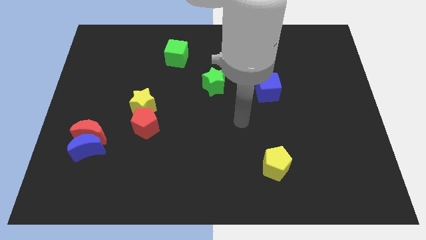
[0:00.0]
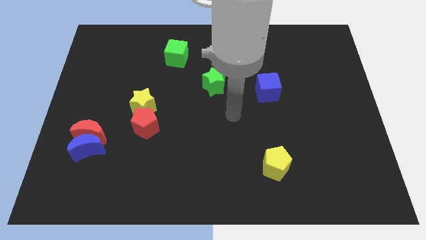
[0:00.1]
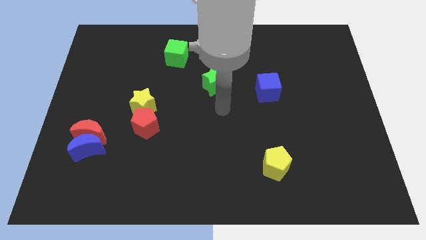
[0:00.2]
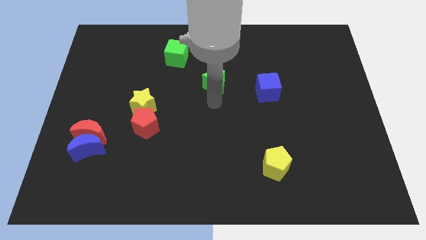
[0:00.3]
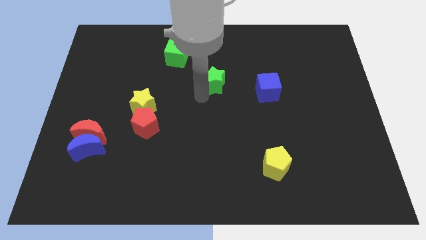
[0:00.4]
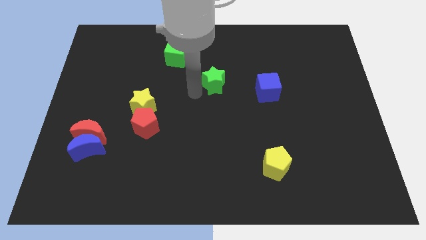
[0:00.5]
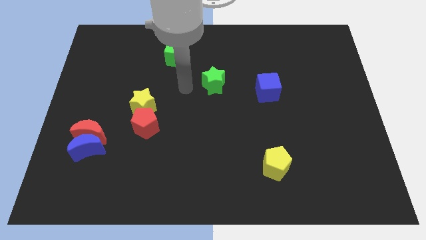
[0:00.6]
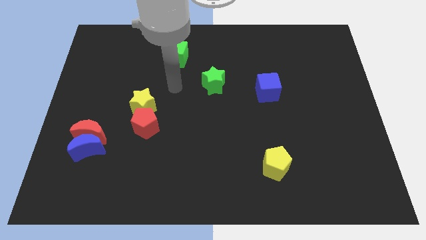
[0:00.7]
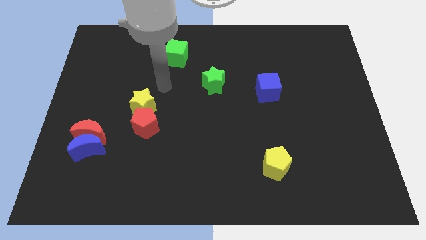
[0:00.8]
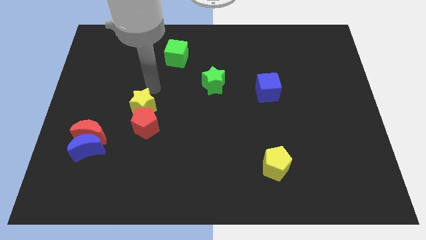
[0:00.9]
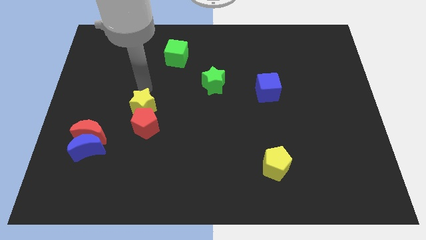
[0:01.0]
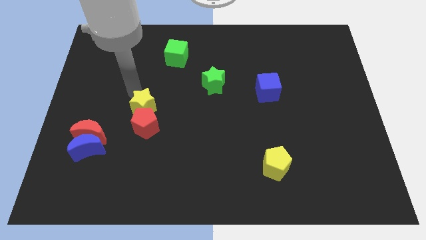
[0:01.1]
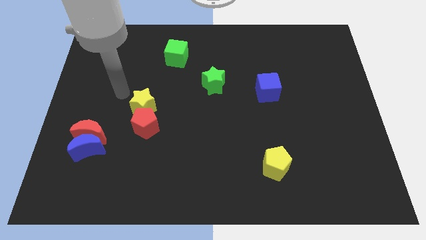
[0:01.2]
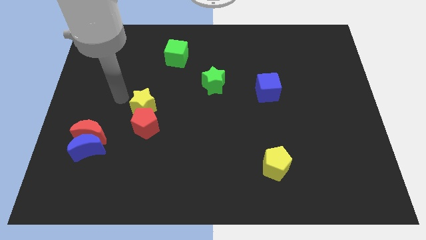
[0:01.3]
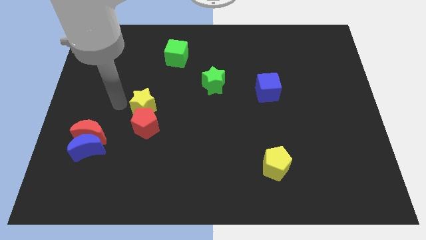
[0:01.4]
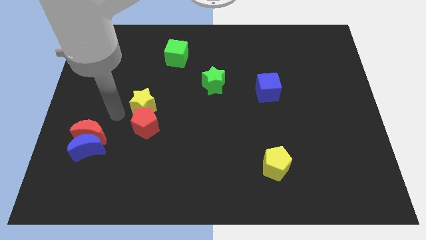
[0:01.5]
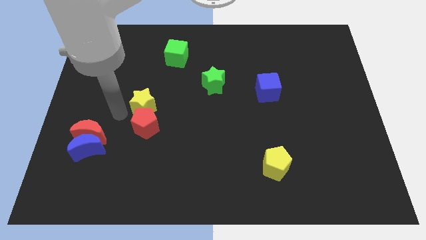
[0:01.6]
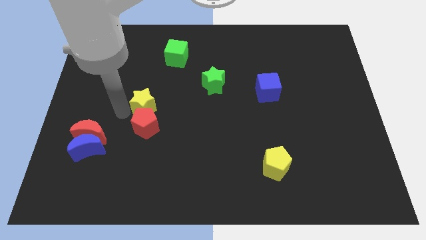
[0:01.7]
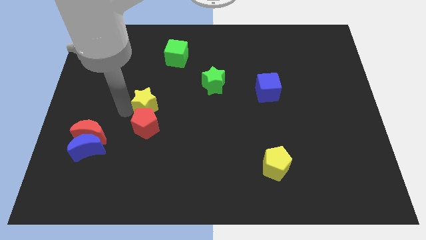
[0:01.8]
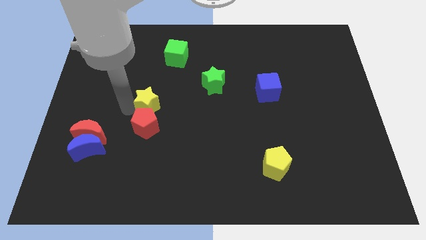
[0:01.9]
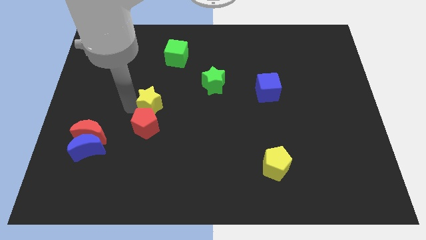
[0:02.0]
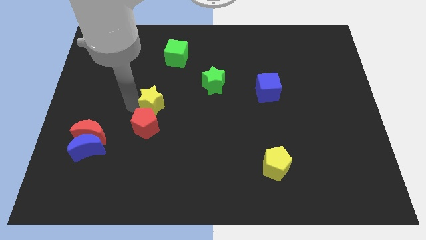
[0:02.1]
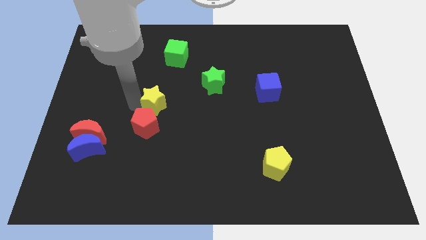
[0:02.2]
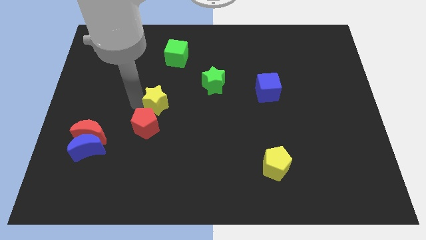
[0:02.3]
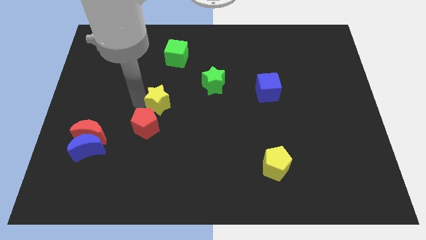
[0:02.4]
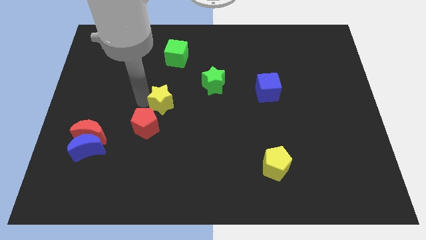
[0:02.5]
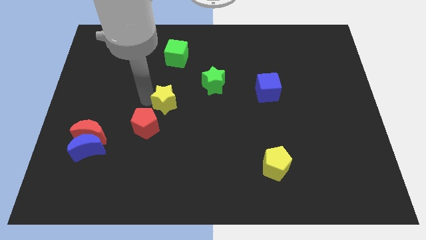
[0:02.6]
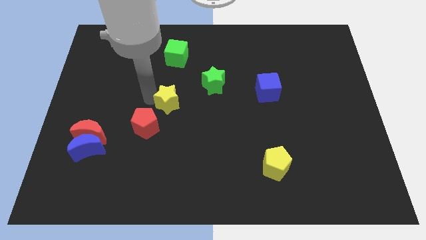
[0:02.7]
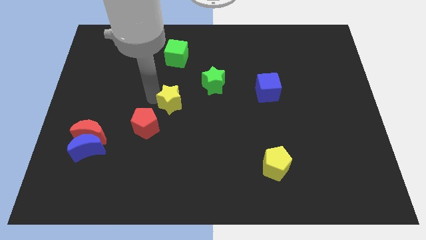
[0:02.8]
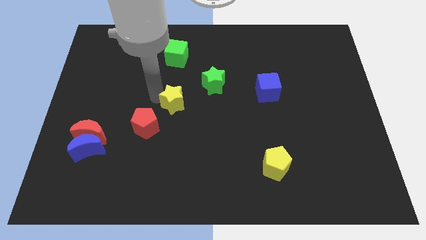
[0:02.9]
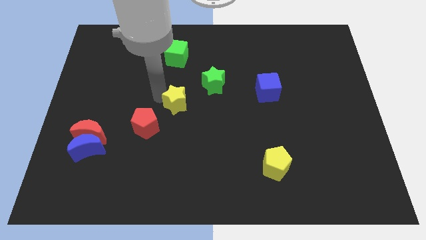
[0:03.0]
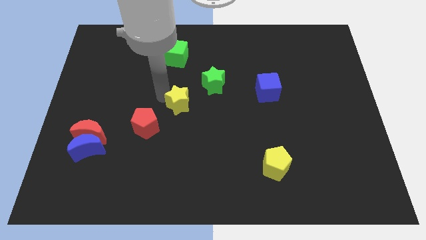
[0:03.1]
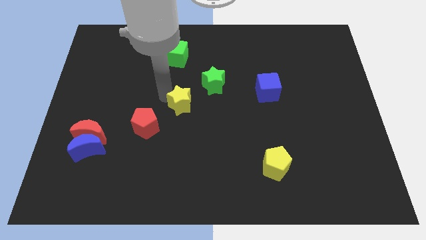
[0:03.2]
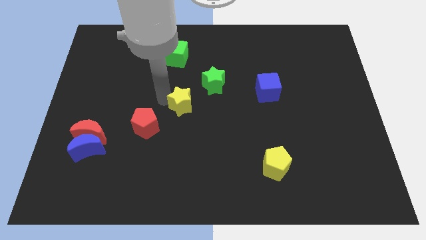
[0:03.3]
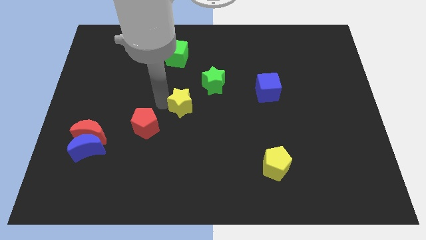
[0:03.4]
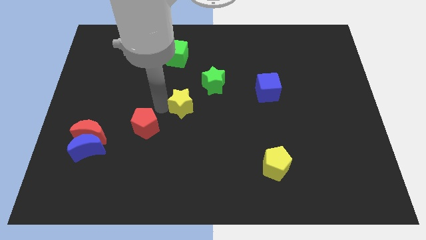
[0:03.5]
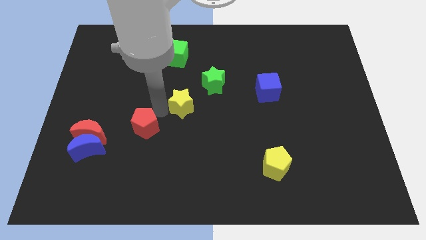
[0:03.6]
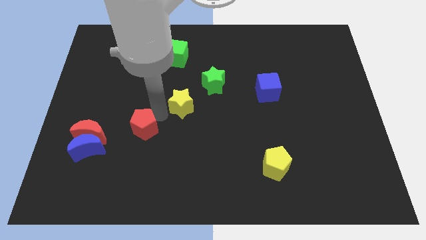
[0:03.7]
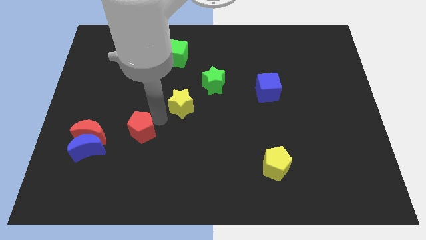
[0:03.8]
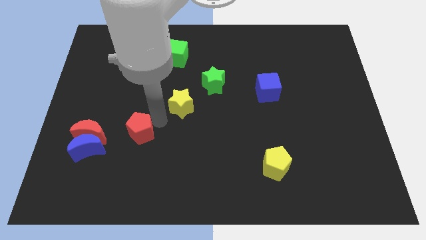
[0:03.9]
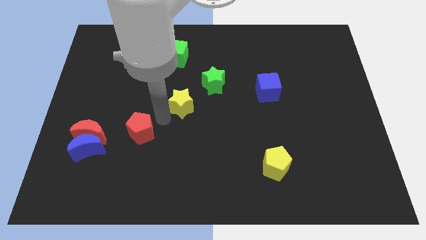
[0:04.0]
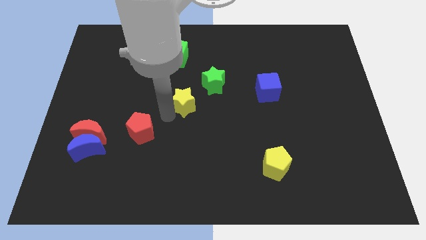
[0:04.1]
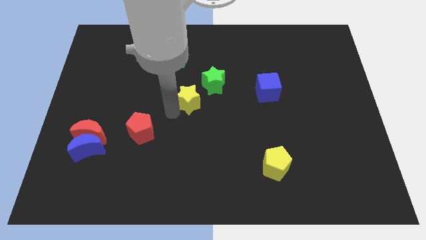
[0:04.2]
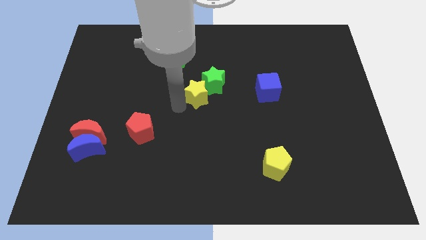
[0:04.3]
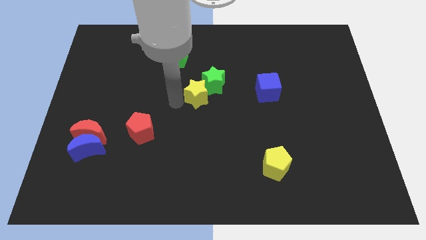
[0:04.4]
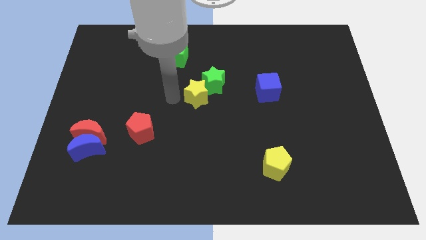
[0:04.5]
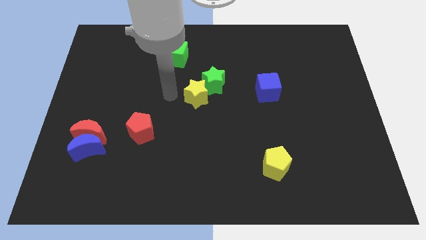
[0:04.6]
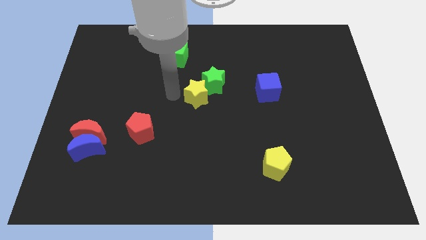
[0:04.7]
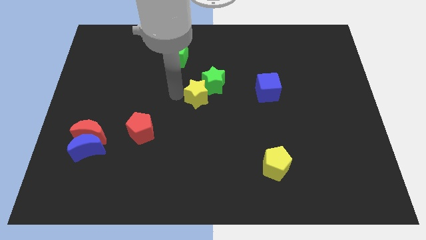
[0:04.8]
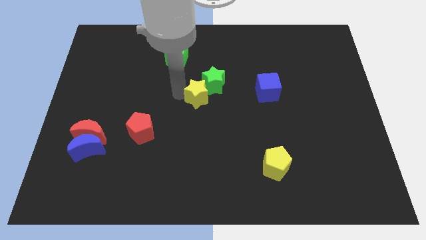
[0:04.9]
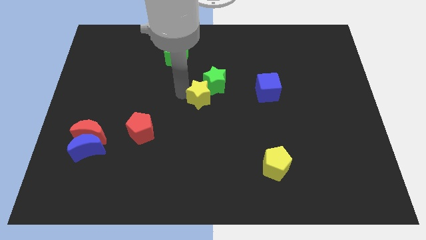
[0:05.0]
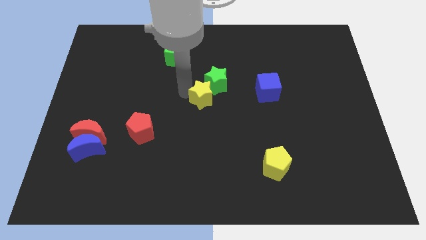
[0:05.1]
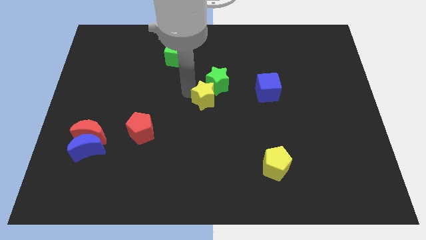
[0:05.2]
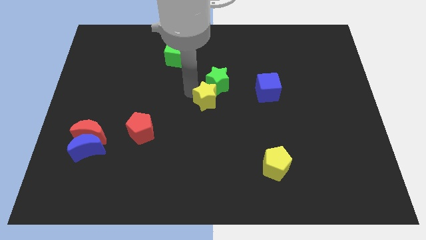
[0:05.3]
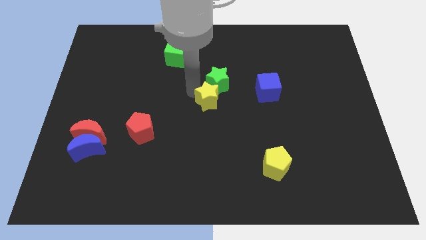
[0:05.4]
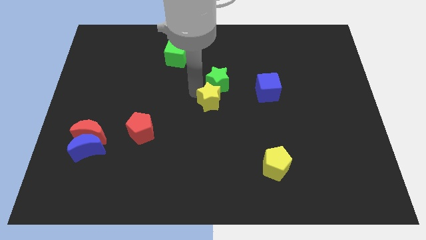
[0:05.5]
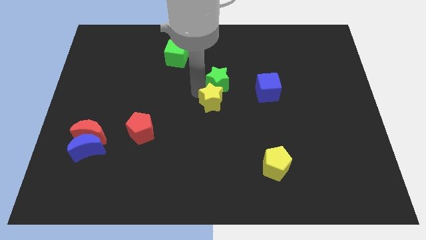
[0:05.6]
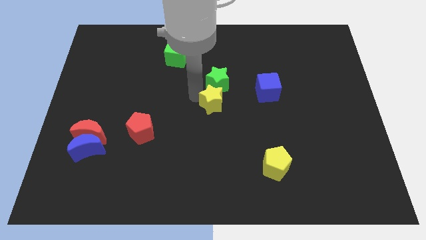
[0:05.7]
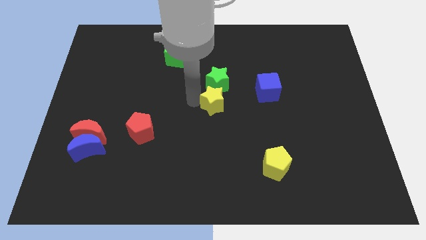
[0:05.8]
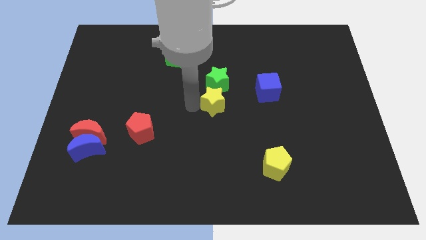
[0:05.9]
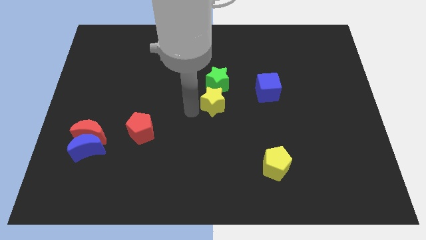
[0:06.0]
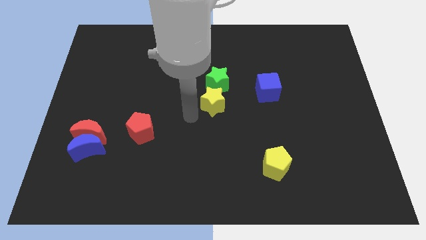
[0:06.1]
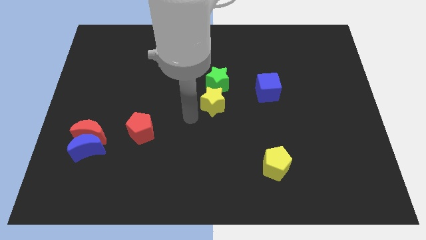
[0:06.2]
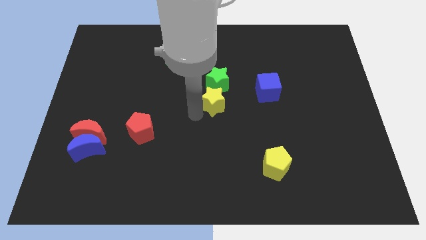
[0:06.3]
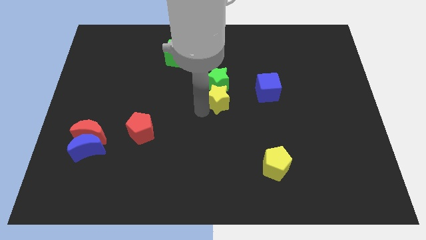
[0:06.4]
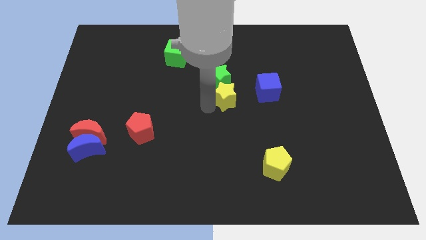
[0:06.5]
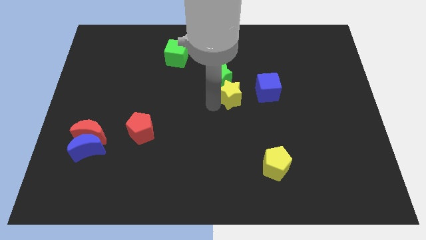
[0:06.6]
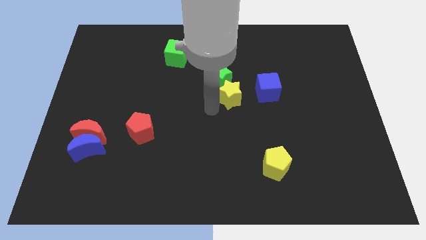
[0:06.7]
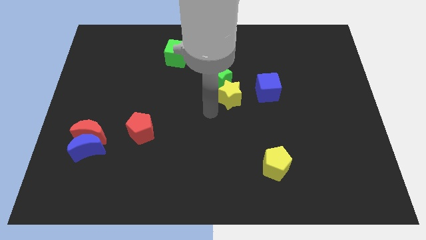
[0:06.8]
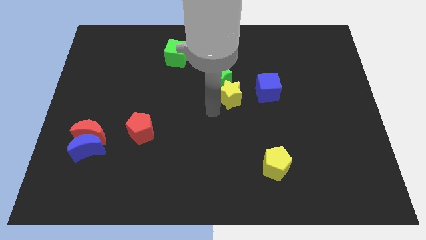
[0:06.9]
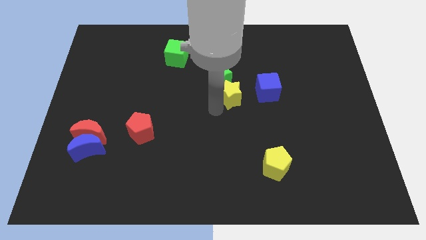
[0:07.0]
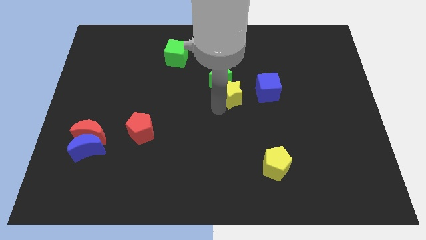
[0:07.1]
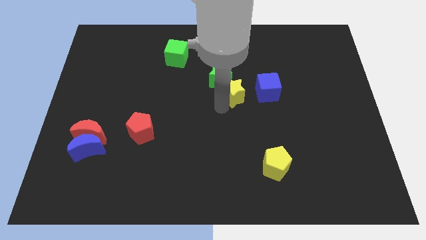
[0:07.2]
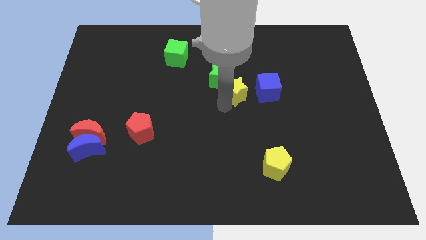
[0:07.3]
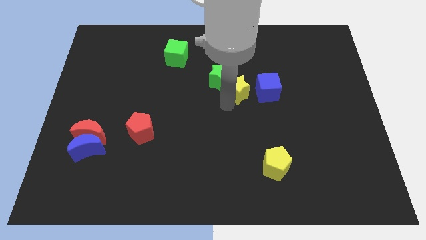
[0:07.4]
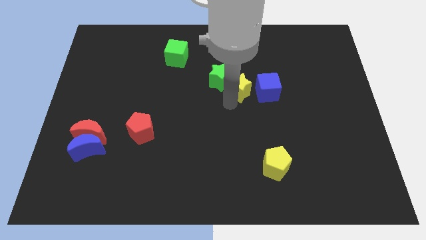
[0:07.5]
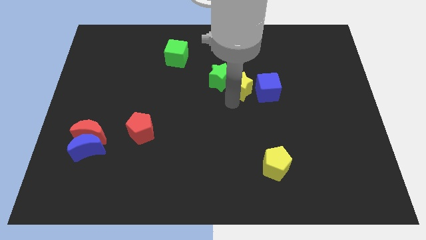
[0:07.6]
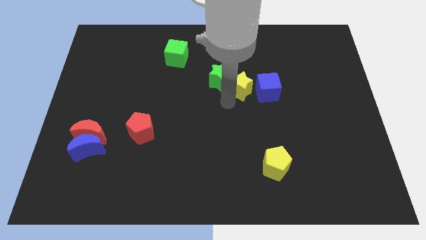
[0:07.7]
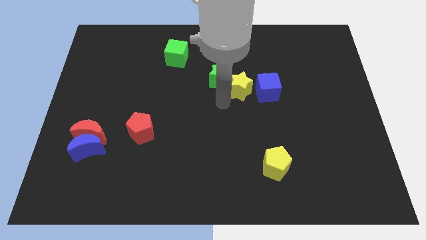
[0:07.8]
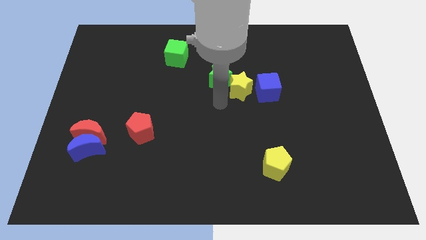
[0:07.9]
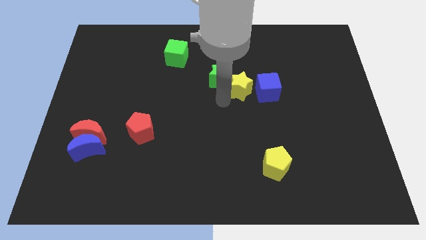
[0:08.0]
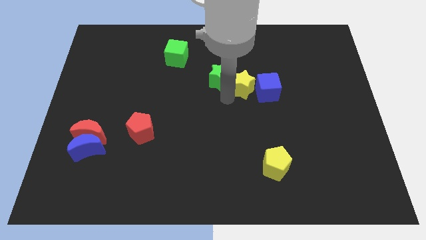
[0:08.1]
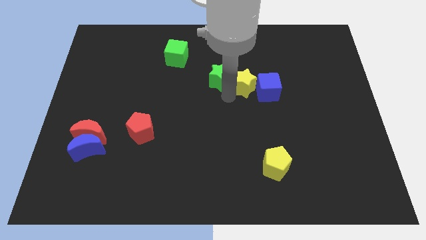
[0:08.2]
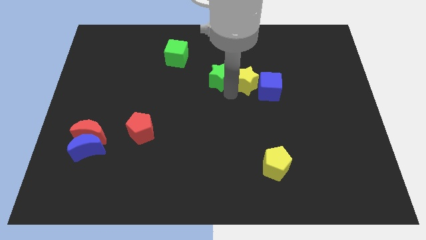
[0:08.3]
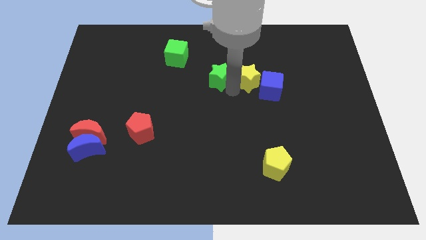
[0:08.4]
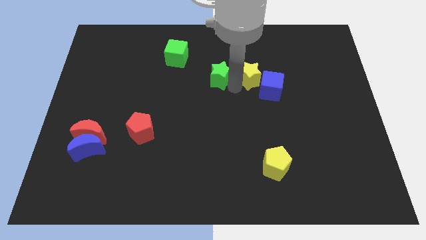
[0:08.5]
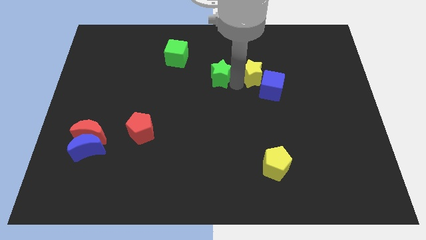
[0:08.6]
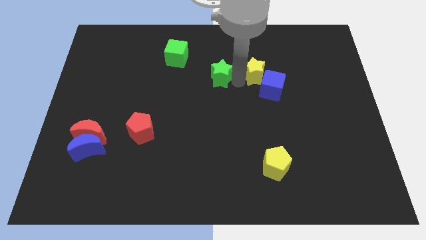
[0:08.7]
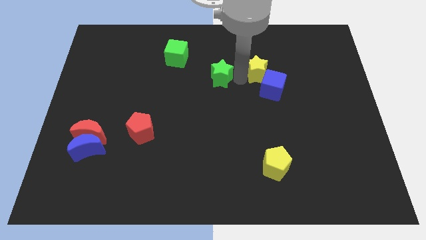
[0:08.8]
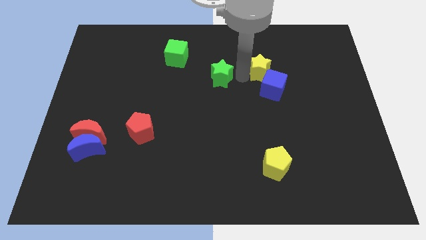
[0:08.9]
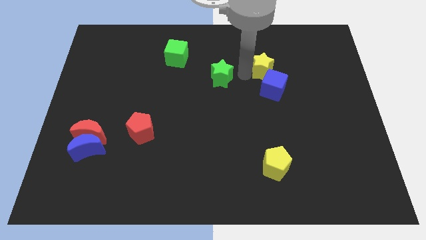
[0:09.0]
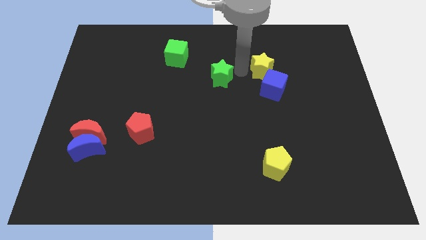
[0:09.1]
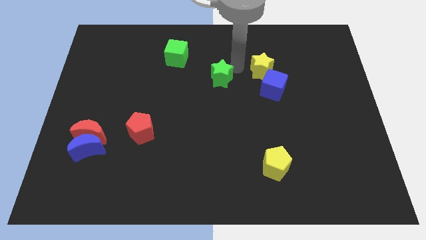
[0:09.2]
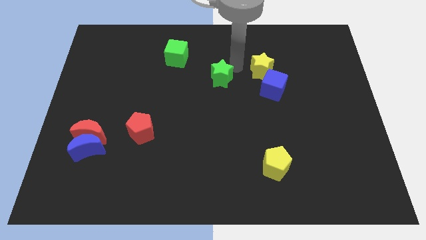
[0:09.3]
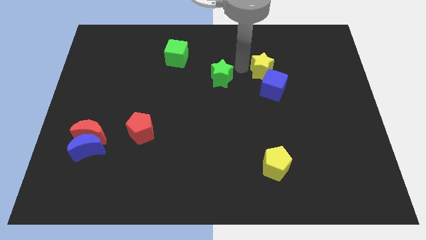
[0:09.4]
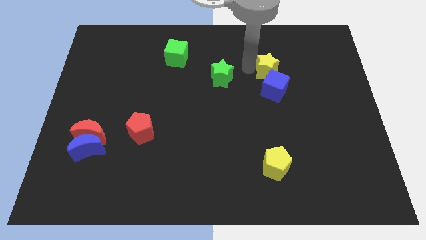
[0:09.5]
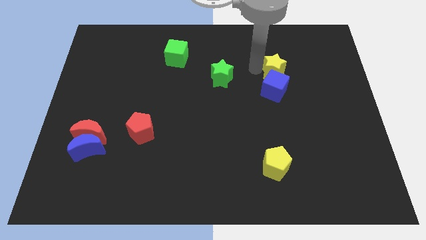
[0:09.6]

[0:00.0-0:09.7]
slide the yellow star to the top right side of the blue cube
